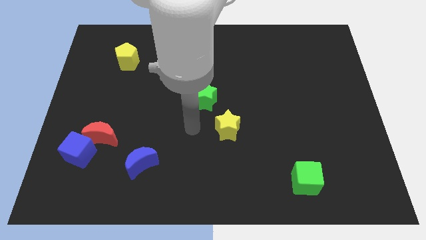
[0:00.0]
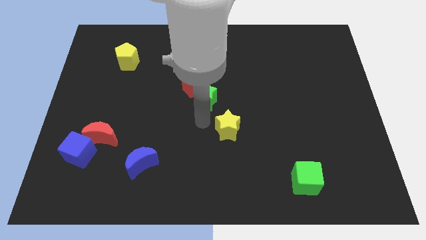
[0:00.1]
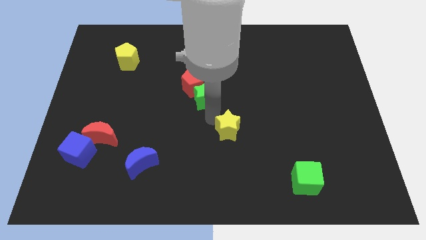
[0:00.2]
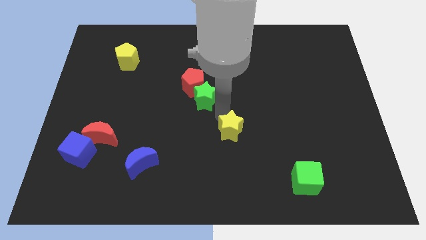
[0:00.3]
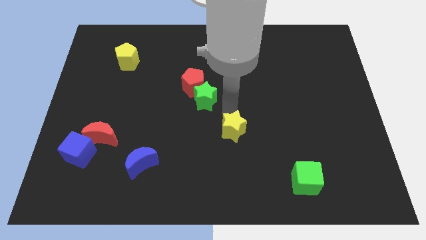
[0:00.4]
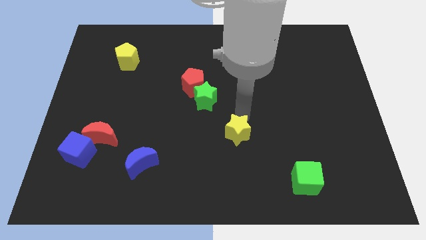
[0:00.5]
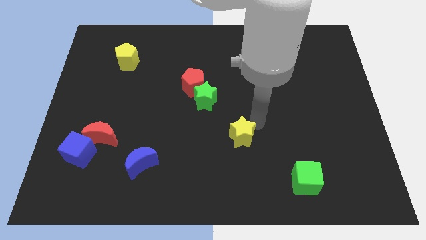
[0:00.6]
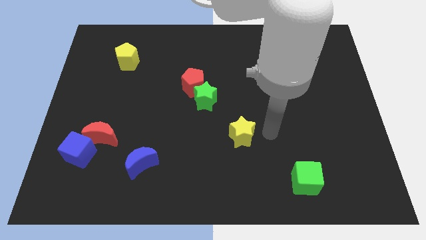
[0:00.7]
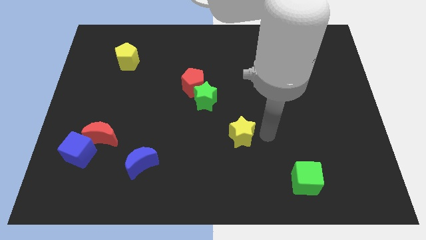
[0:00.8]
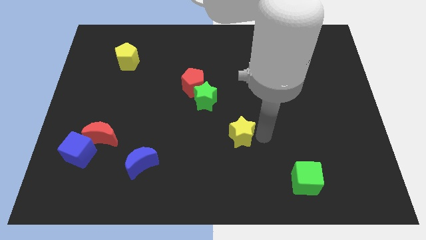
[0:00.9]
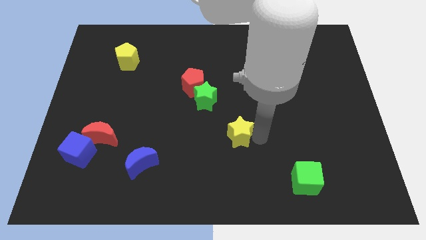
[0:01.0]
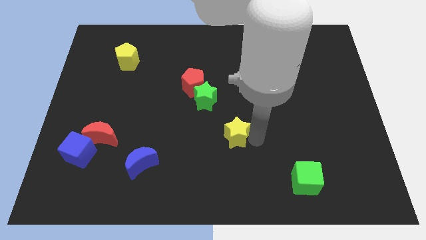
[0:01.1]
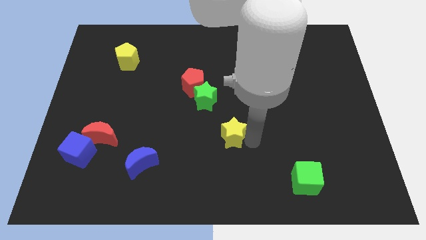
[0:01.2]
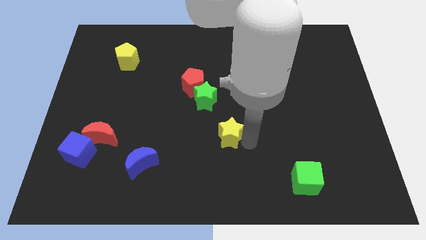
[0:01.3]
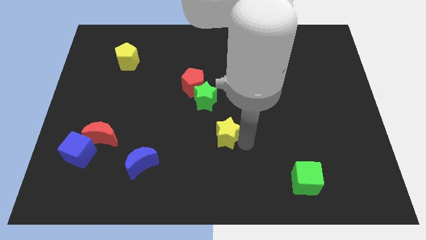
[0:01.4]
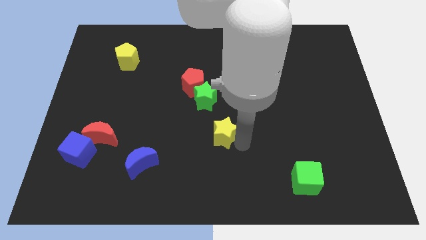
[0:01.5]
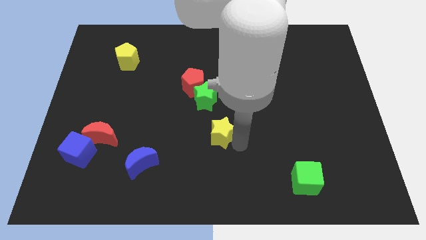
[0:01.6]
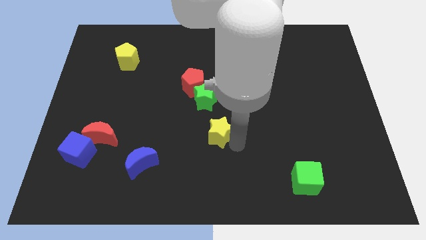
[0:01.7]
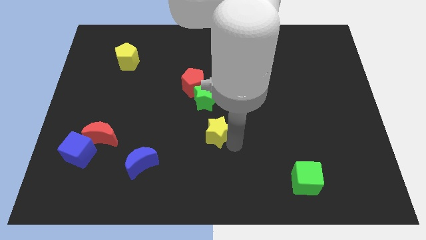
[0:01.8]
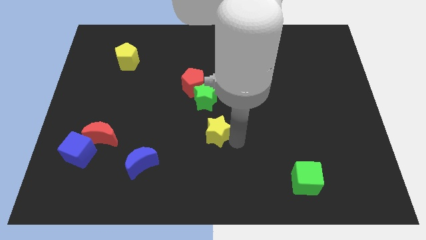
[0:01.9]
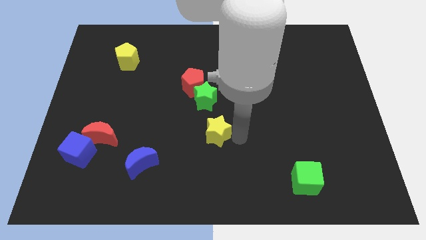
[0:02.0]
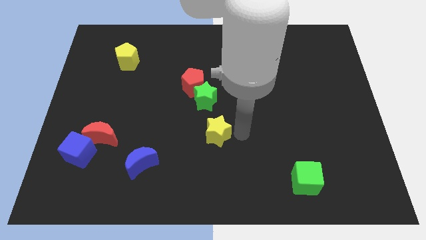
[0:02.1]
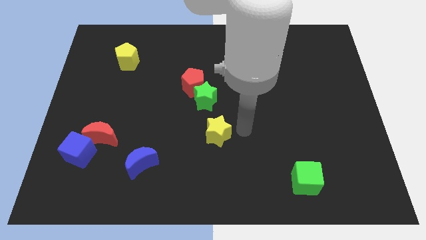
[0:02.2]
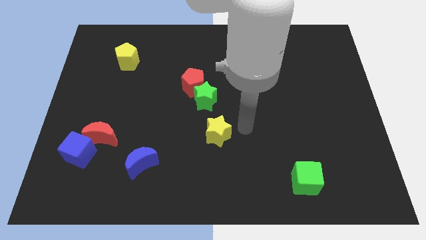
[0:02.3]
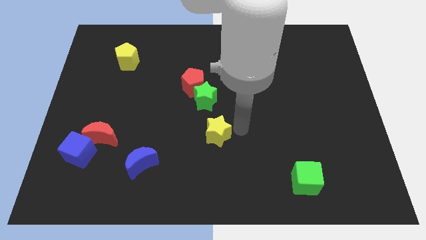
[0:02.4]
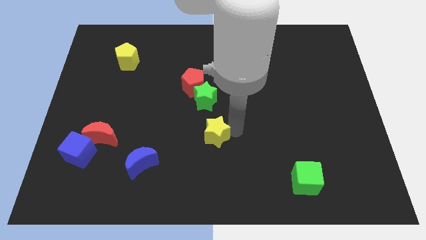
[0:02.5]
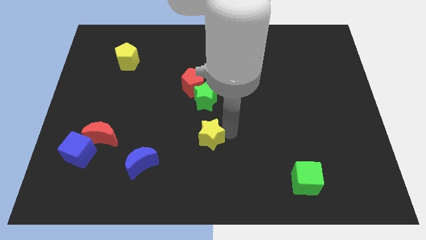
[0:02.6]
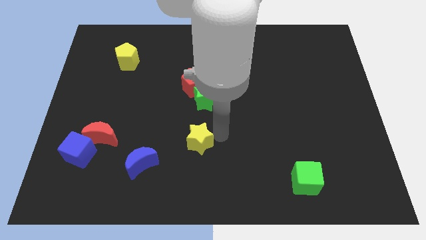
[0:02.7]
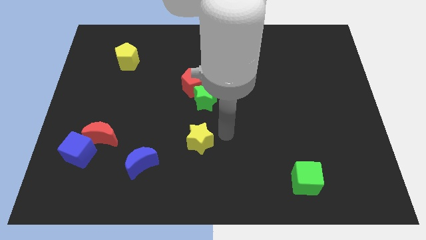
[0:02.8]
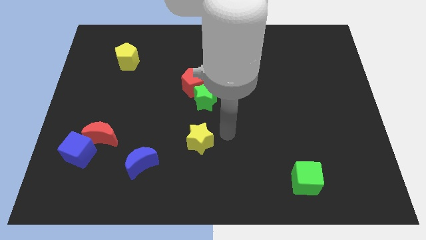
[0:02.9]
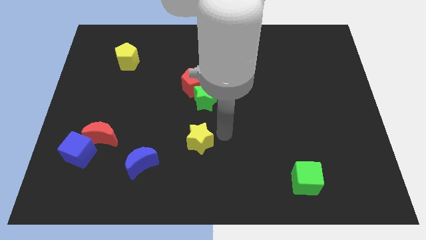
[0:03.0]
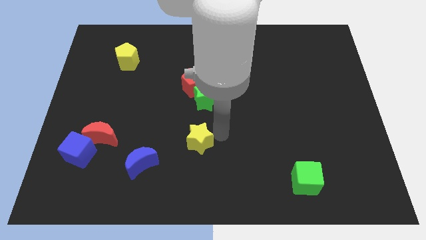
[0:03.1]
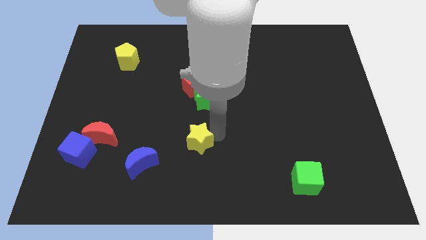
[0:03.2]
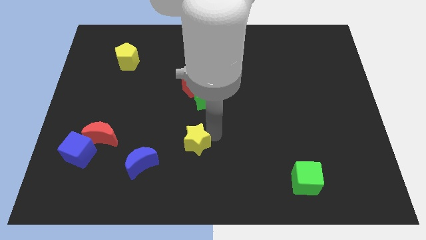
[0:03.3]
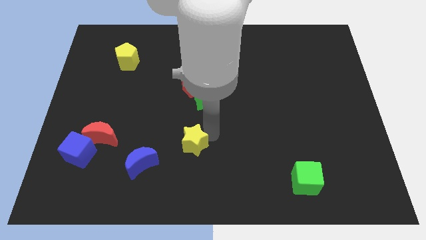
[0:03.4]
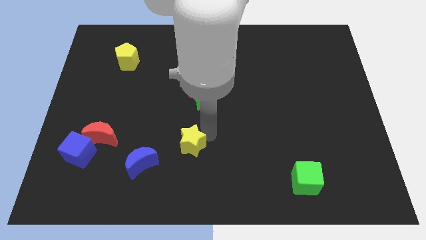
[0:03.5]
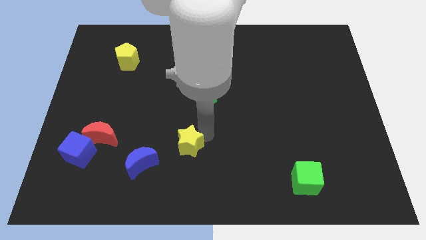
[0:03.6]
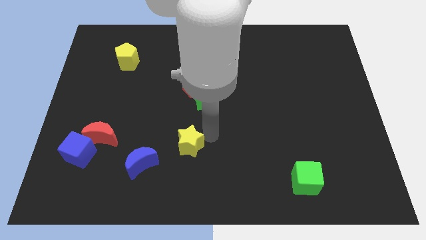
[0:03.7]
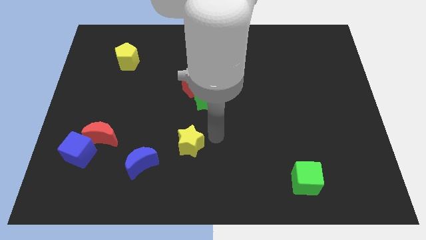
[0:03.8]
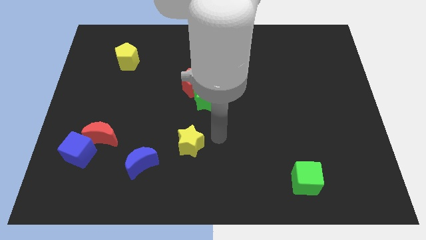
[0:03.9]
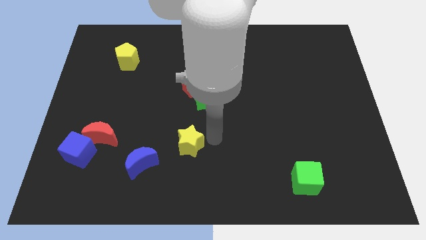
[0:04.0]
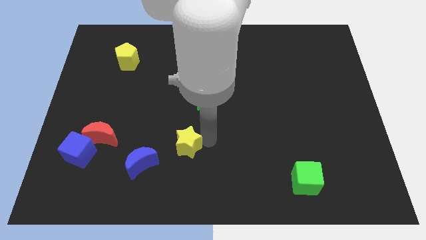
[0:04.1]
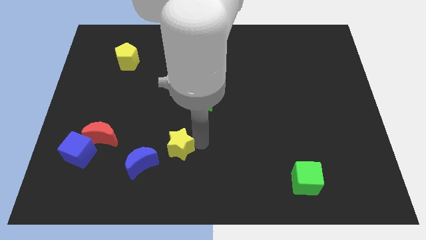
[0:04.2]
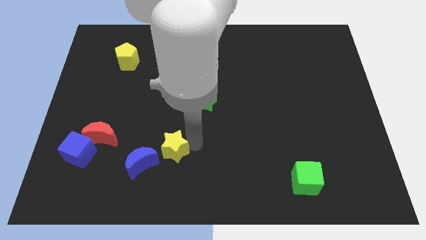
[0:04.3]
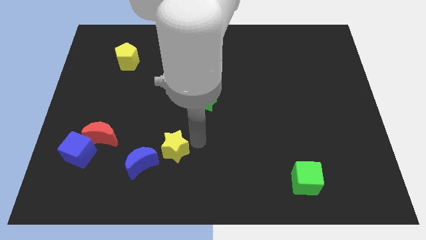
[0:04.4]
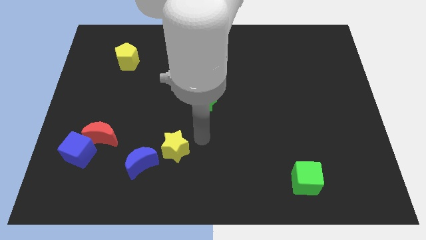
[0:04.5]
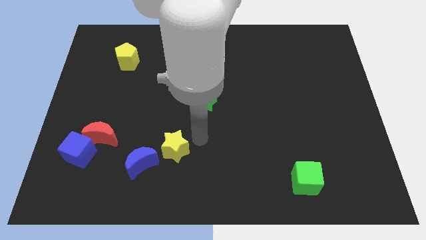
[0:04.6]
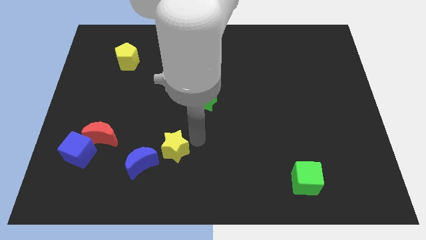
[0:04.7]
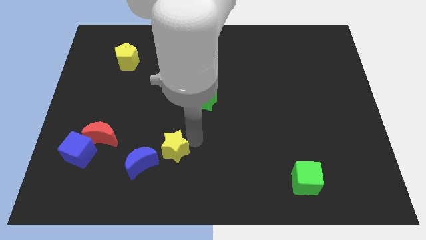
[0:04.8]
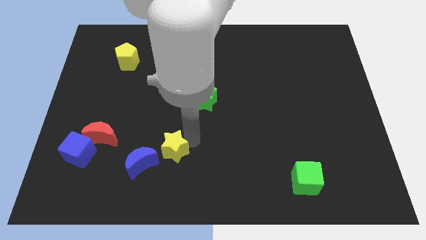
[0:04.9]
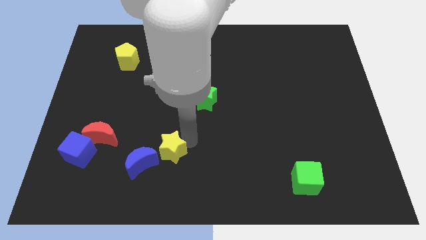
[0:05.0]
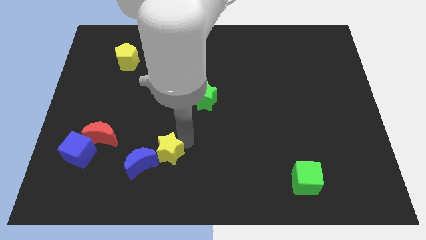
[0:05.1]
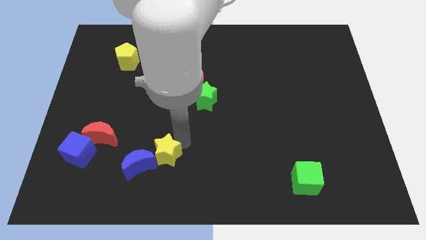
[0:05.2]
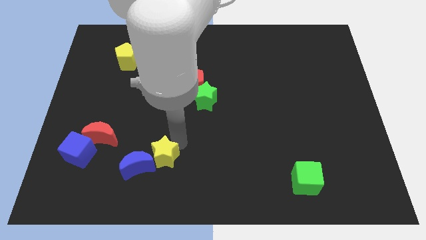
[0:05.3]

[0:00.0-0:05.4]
put the yellow star next to the blue moon

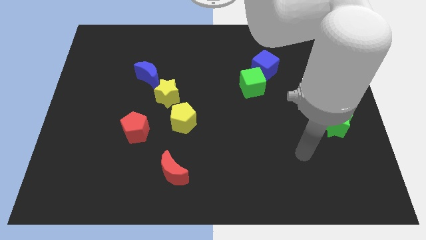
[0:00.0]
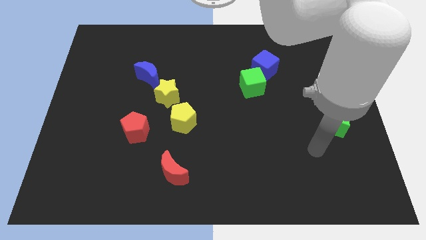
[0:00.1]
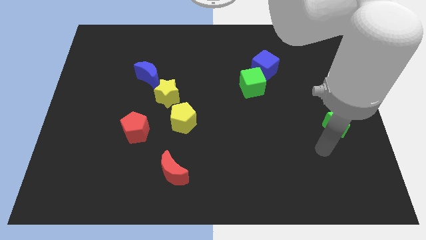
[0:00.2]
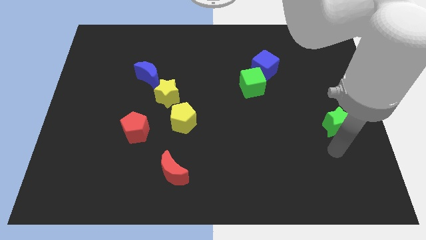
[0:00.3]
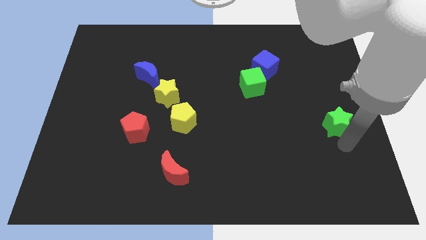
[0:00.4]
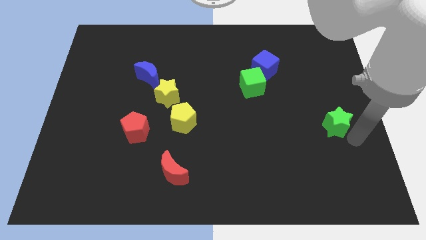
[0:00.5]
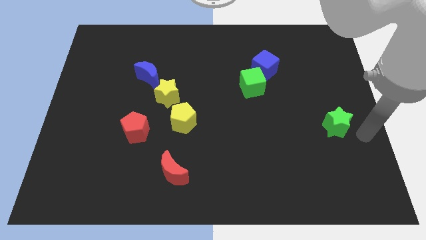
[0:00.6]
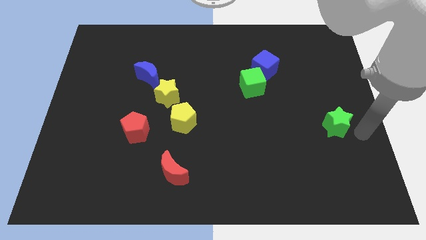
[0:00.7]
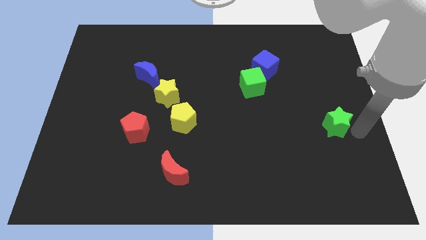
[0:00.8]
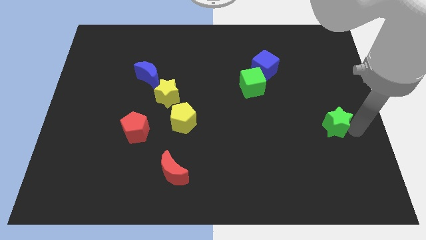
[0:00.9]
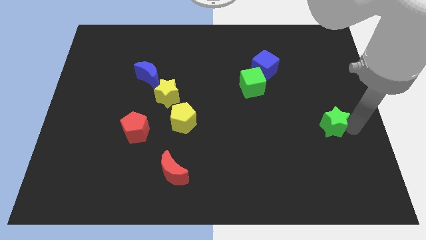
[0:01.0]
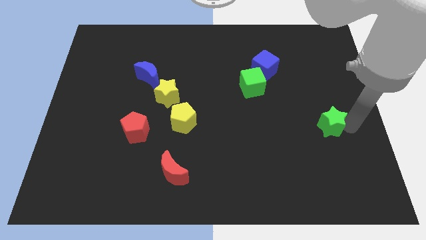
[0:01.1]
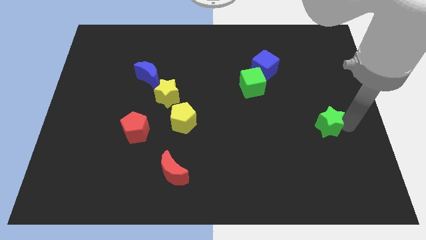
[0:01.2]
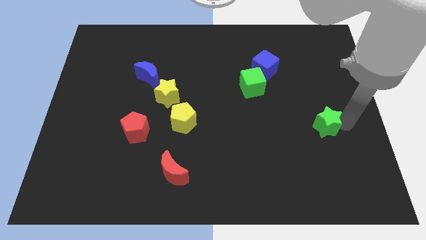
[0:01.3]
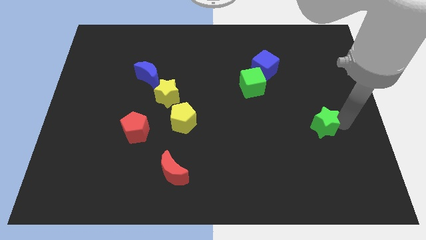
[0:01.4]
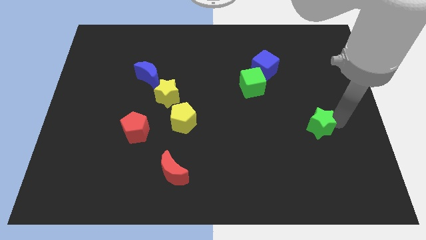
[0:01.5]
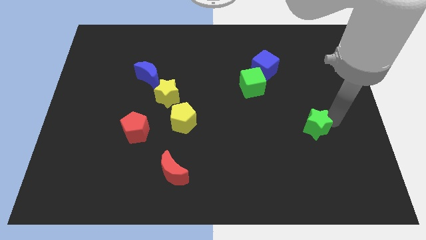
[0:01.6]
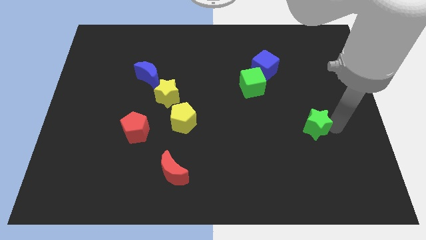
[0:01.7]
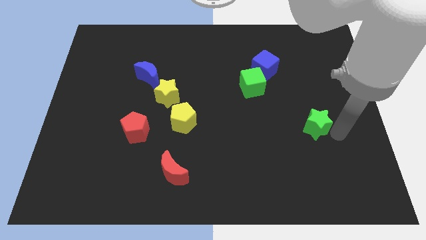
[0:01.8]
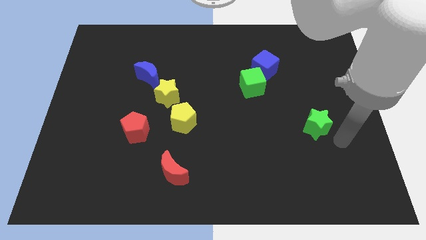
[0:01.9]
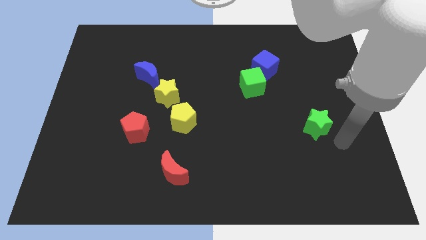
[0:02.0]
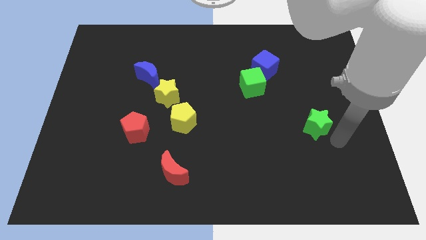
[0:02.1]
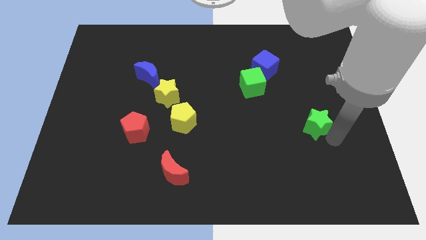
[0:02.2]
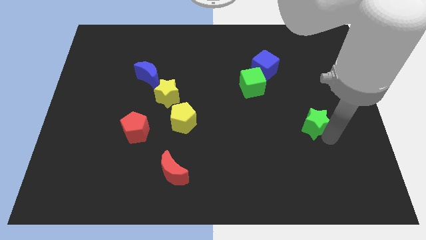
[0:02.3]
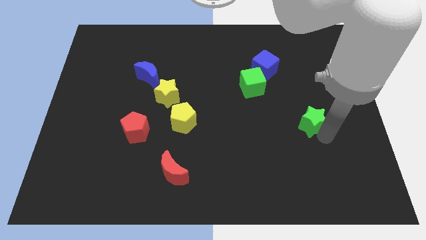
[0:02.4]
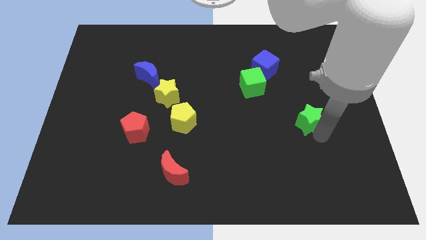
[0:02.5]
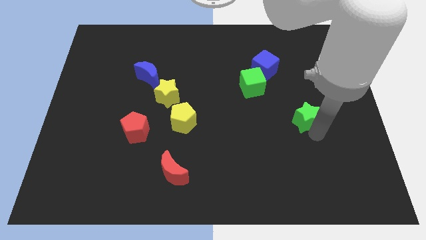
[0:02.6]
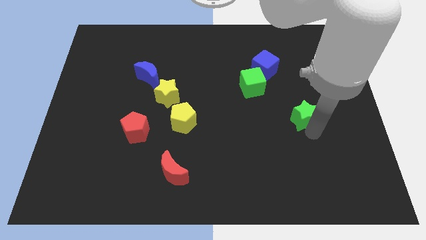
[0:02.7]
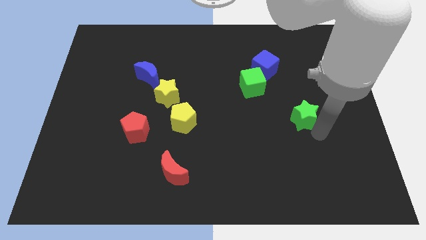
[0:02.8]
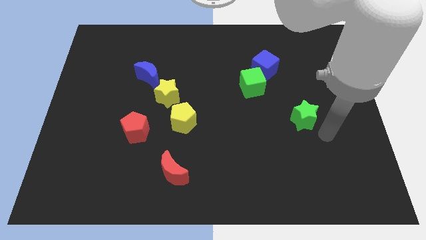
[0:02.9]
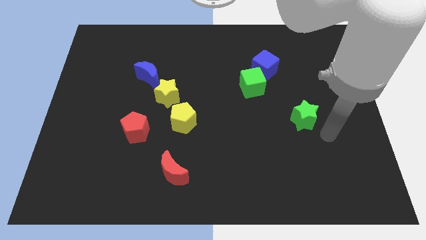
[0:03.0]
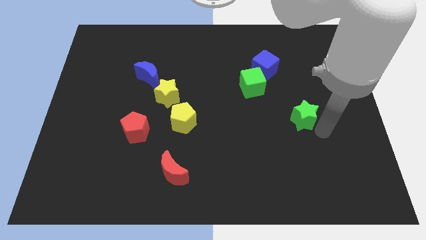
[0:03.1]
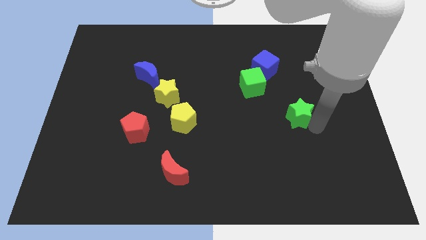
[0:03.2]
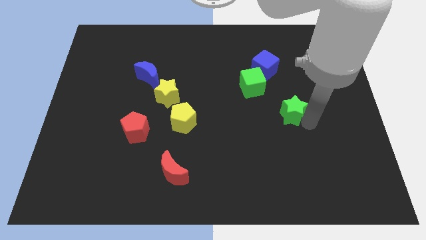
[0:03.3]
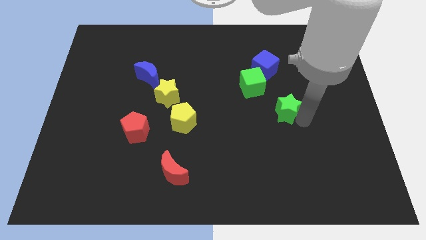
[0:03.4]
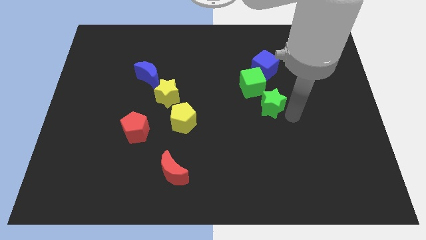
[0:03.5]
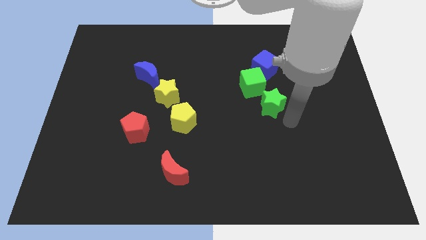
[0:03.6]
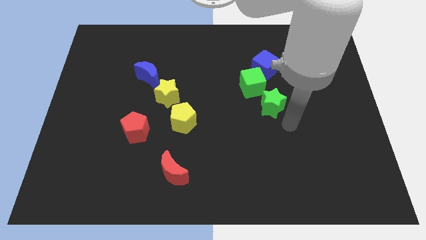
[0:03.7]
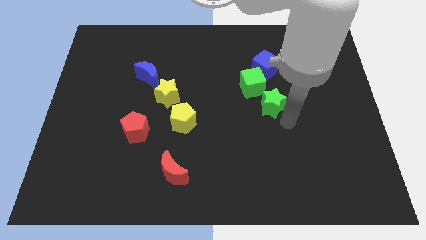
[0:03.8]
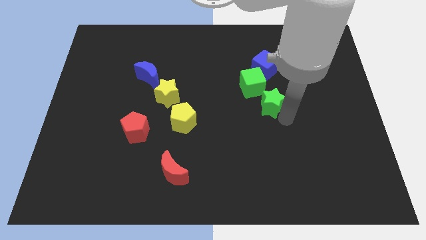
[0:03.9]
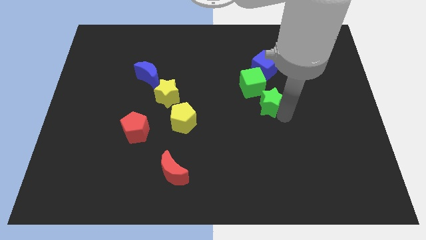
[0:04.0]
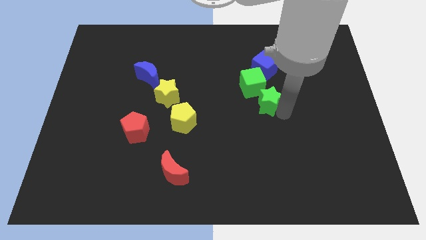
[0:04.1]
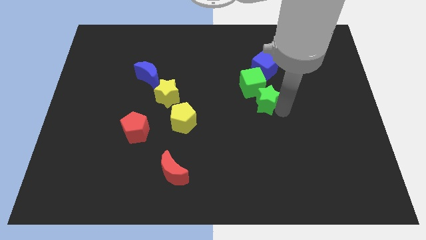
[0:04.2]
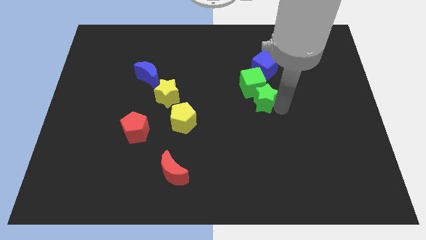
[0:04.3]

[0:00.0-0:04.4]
push the green star towards the green cube
